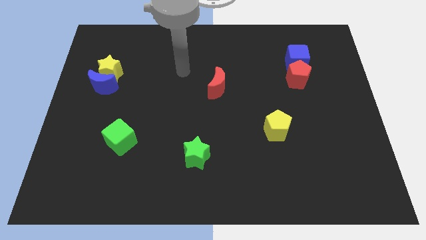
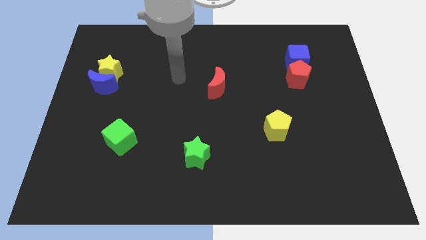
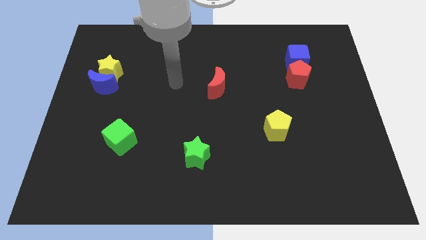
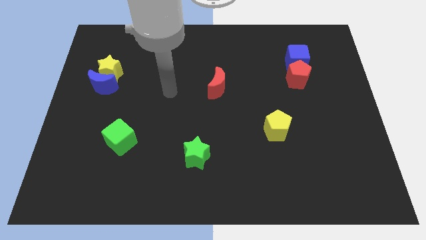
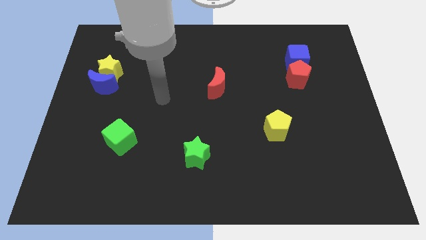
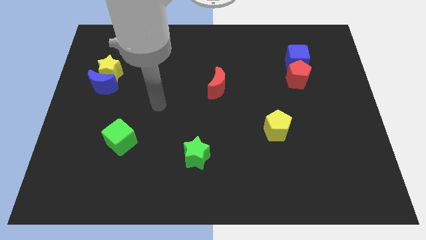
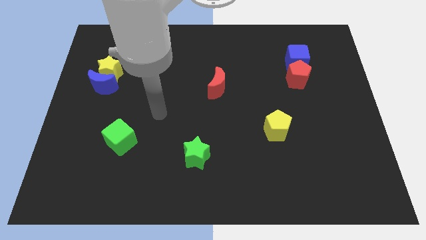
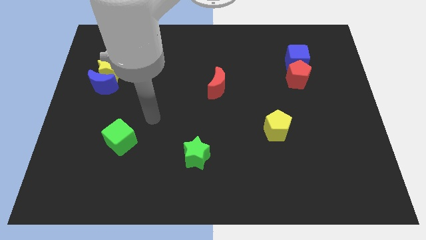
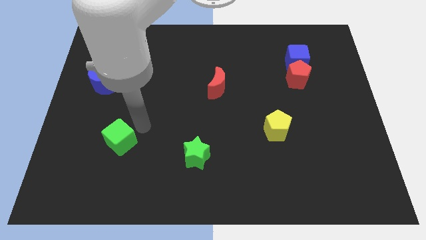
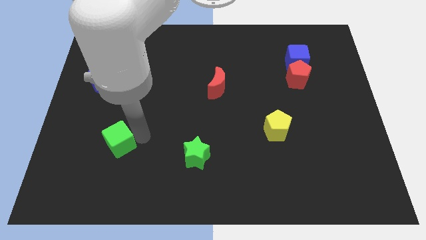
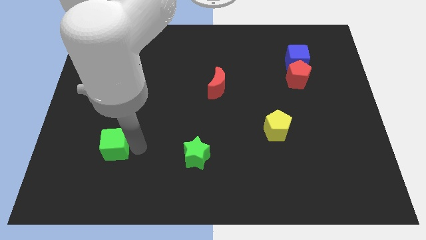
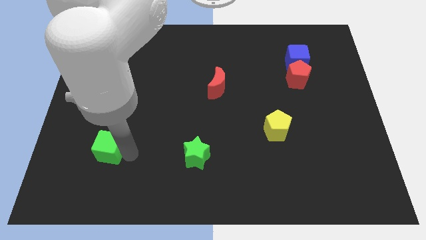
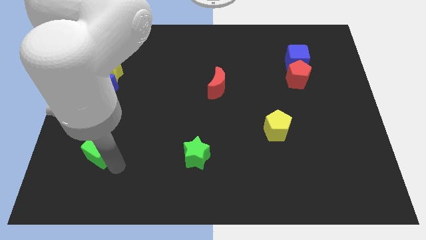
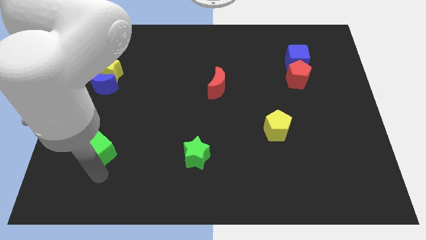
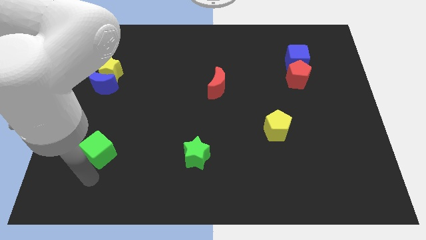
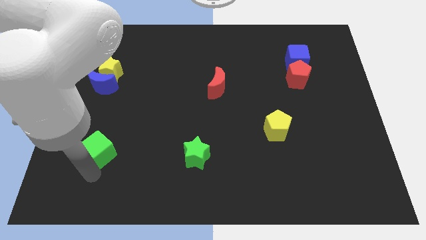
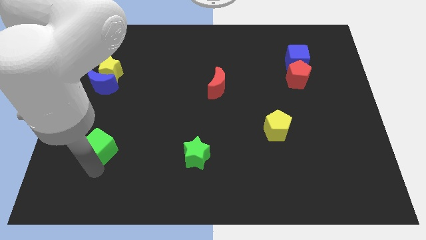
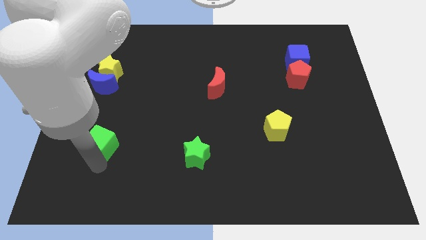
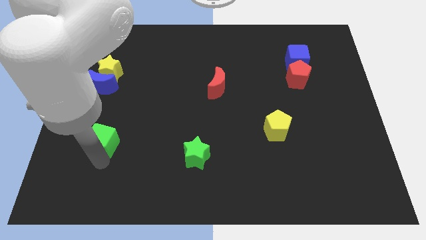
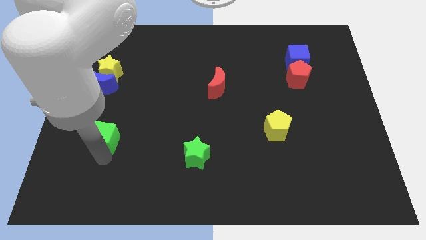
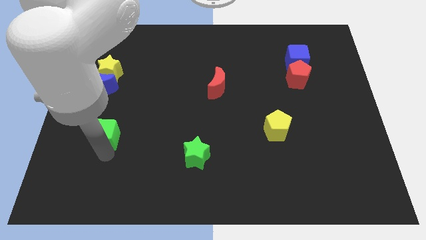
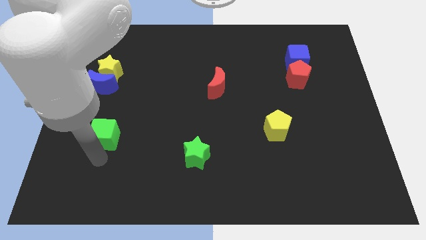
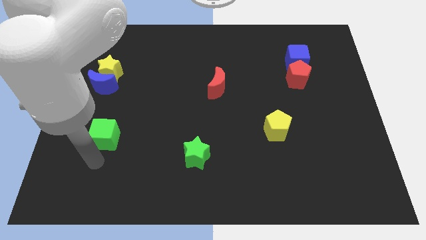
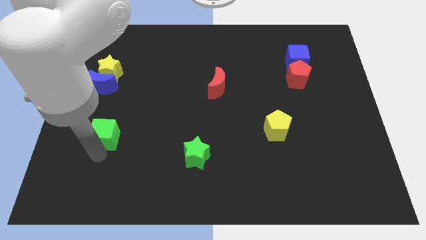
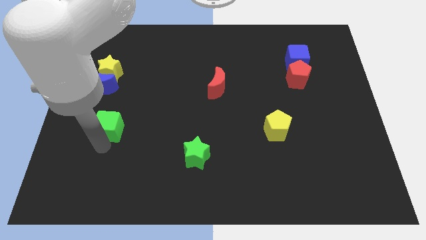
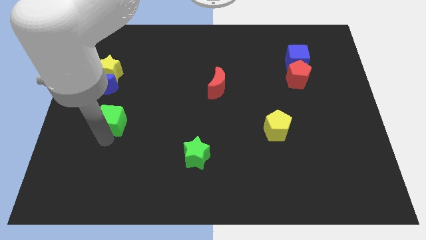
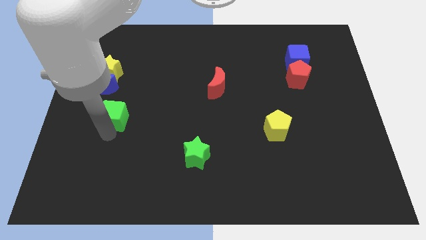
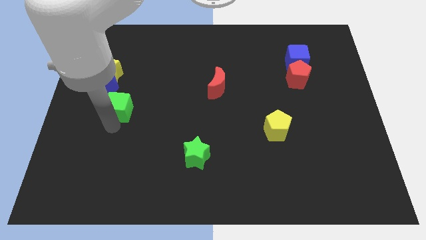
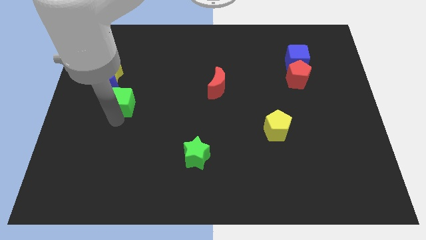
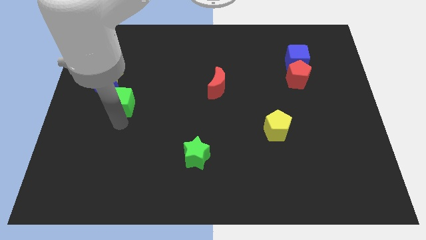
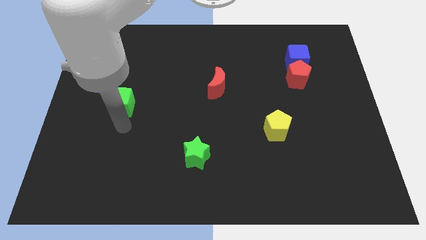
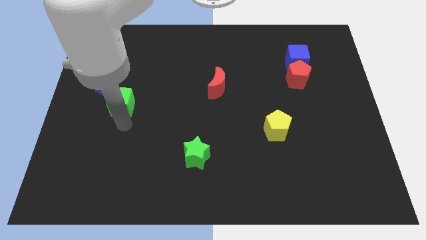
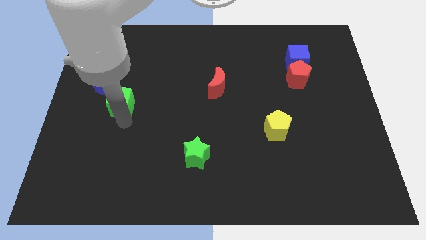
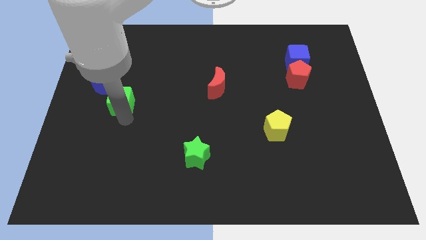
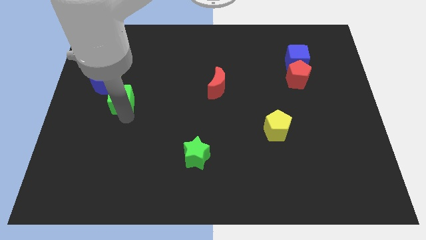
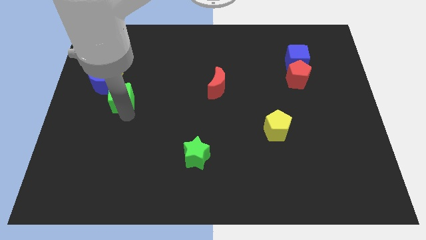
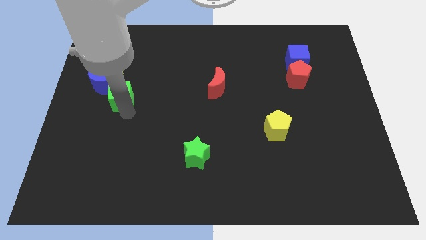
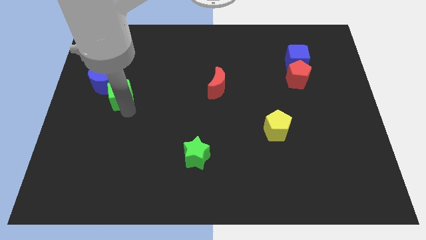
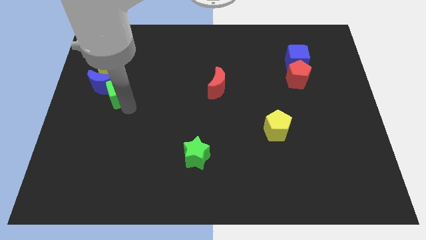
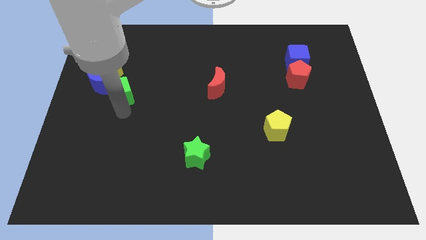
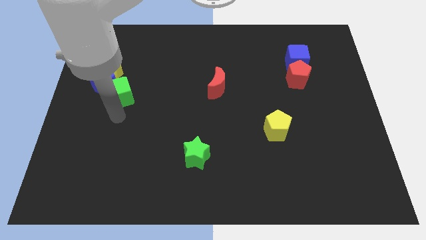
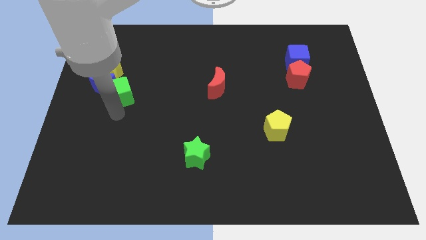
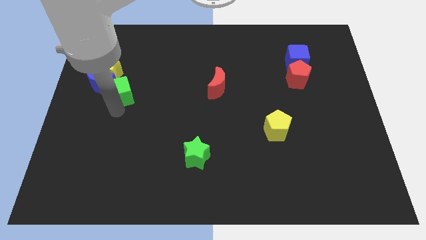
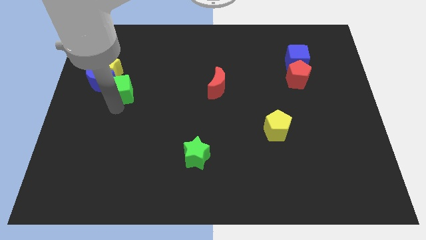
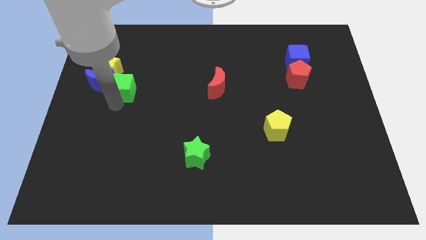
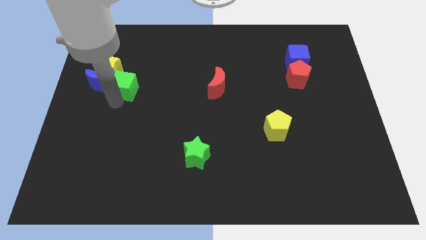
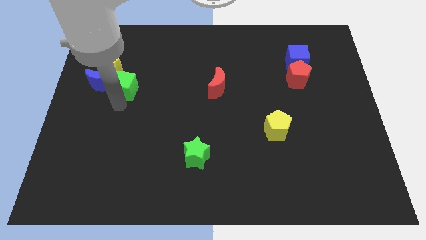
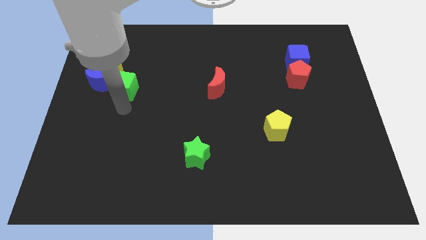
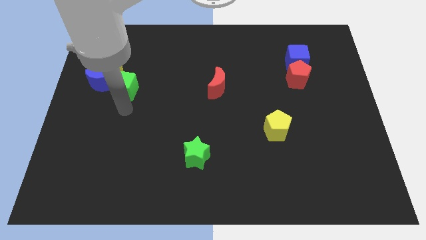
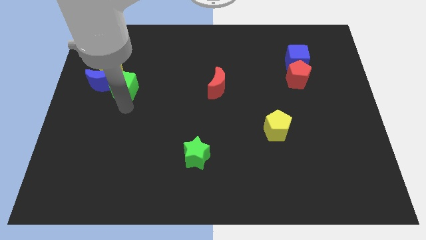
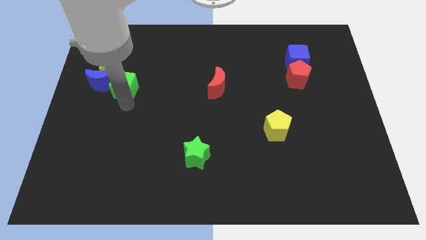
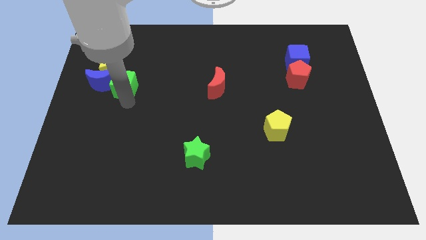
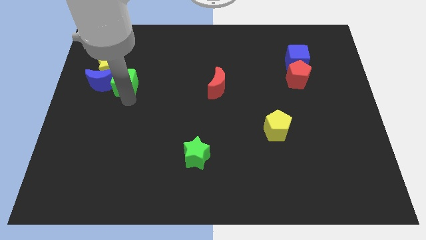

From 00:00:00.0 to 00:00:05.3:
slide the green cube to the top right side of the blue moon

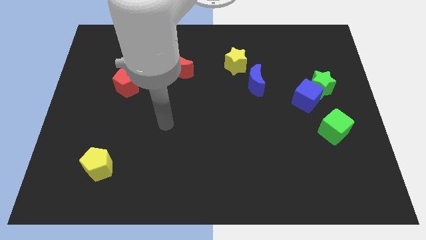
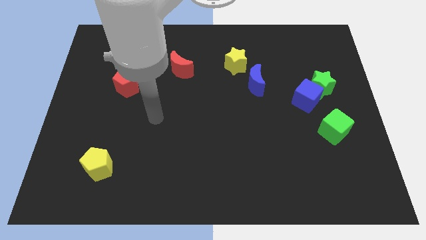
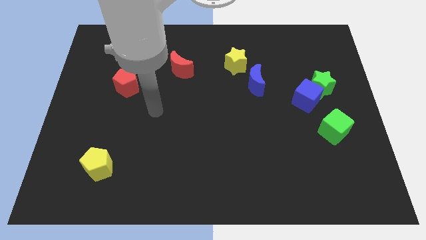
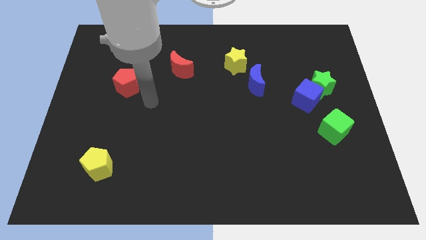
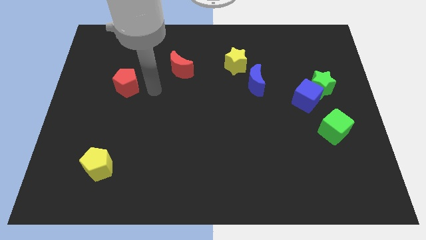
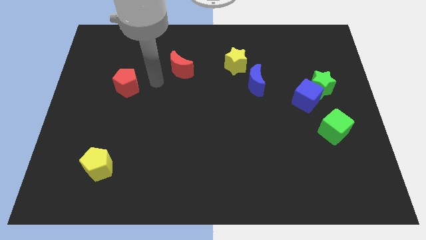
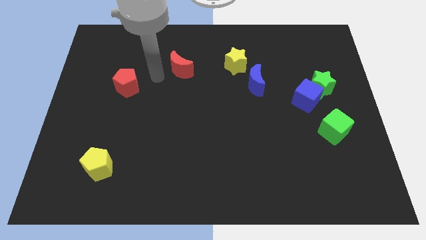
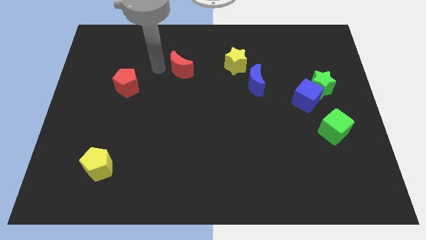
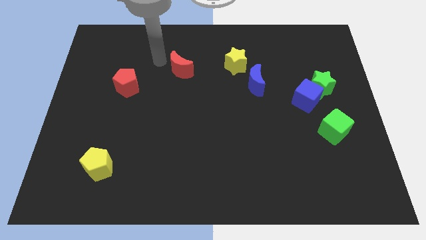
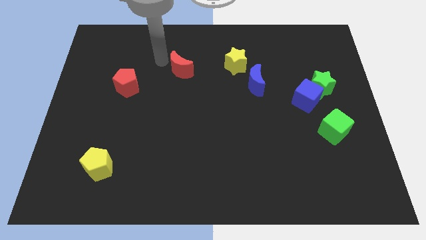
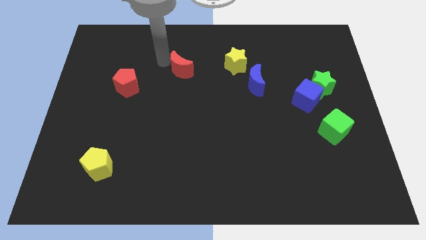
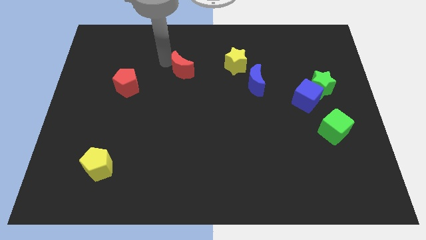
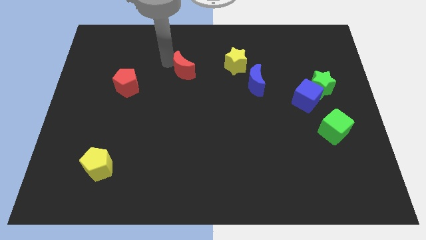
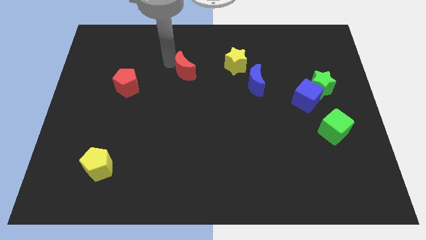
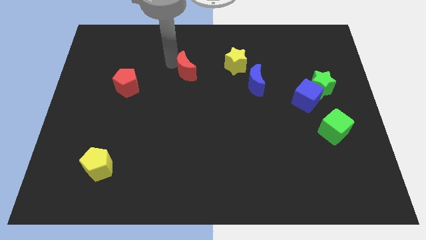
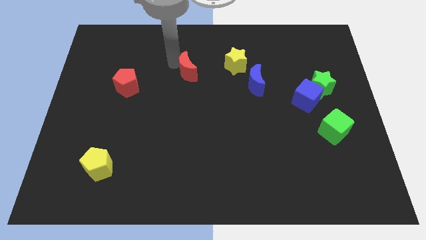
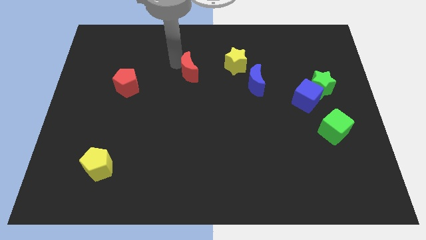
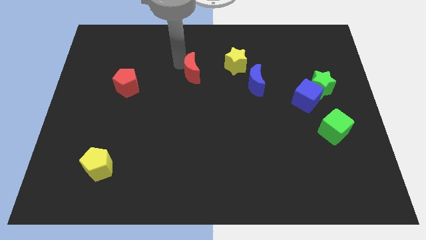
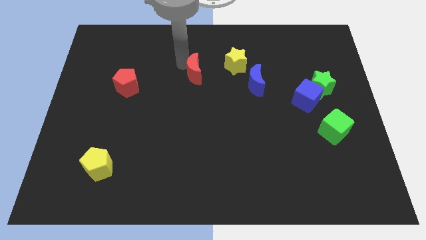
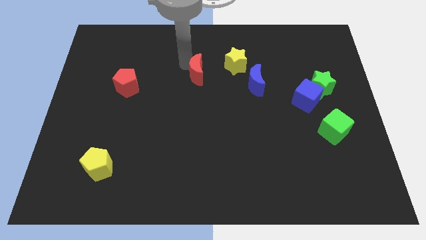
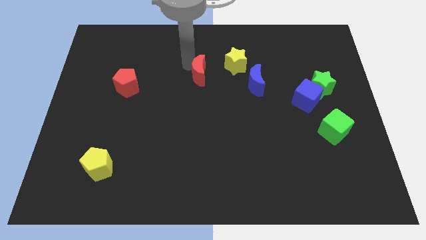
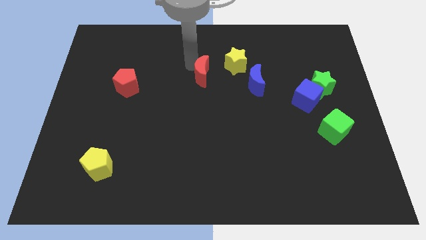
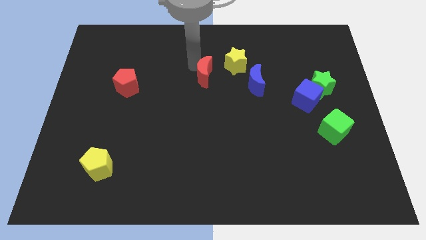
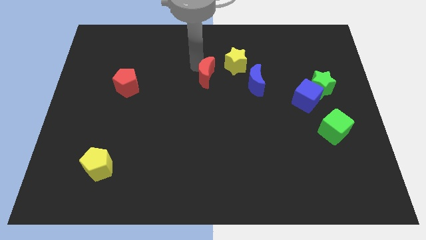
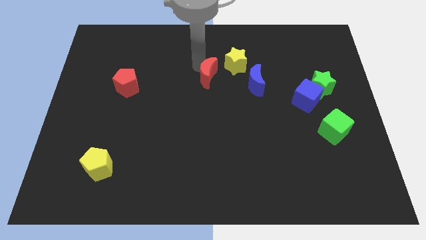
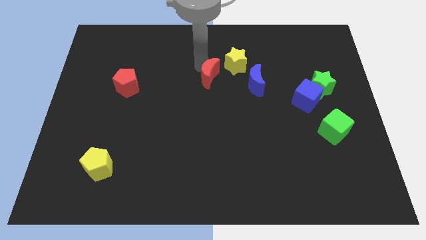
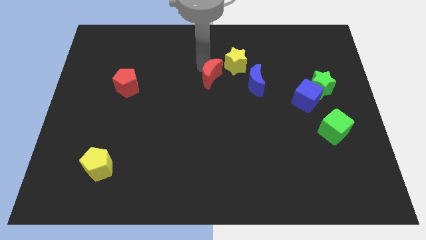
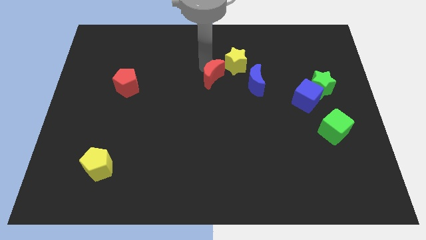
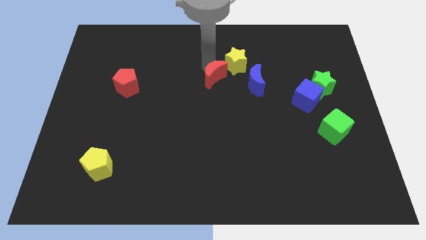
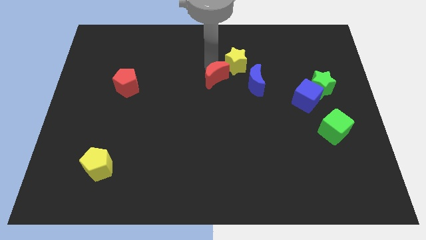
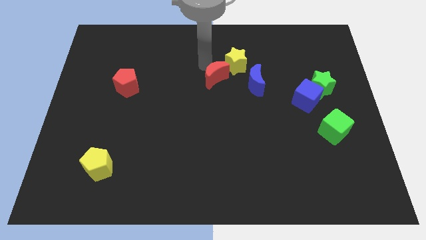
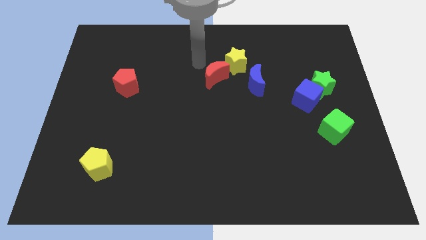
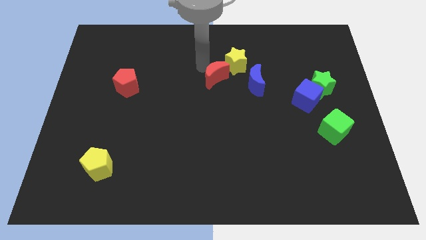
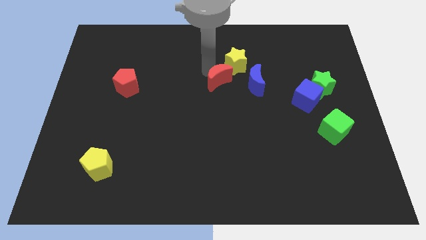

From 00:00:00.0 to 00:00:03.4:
put the red moon to the bottom of the yellow star
